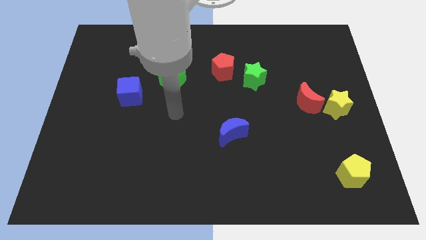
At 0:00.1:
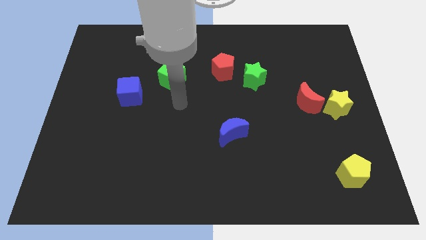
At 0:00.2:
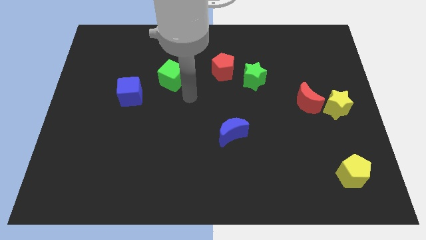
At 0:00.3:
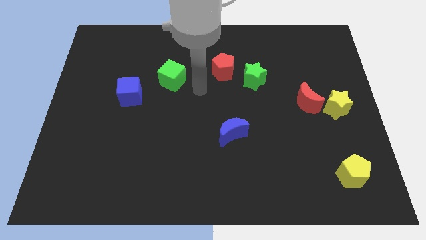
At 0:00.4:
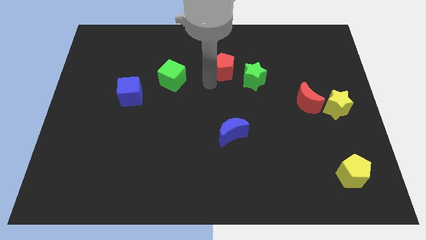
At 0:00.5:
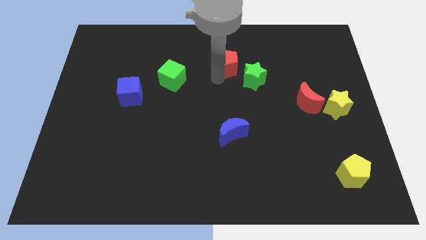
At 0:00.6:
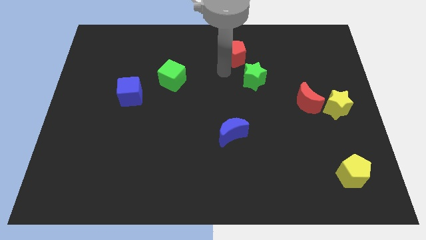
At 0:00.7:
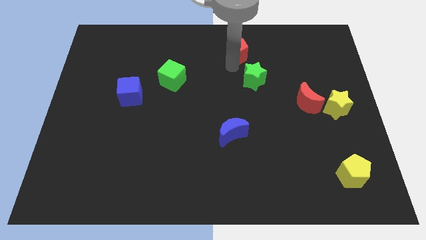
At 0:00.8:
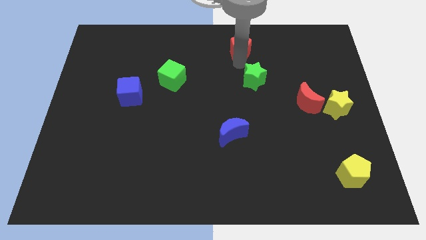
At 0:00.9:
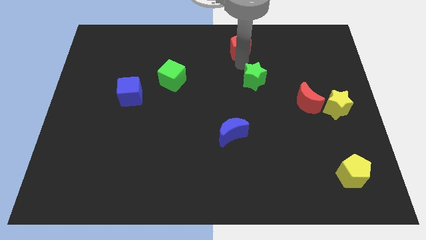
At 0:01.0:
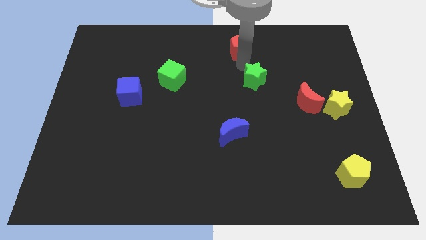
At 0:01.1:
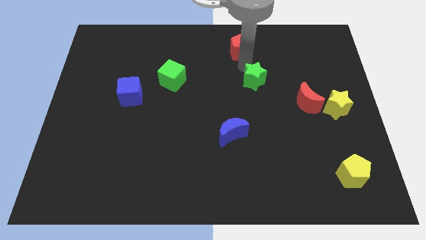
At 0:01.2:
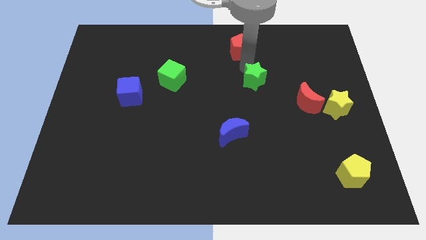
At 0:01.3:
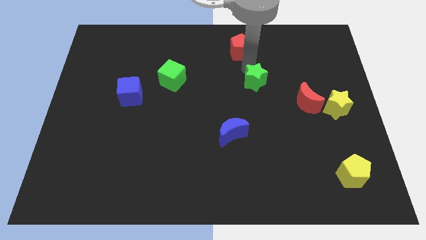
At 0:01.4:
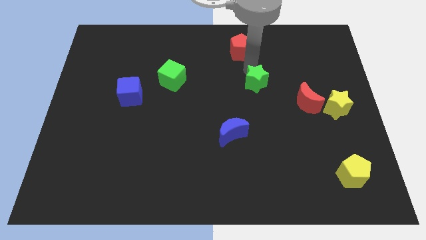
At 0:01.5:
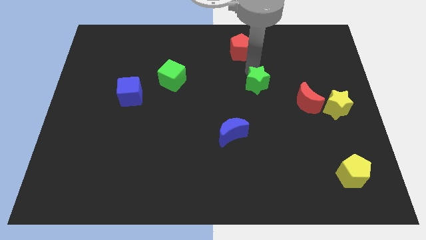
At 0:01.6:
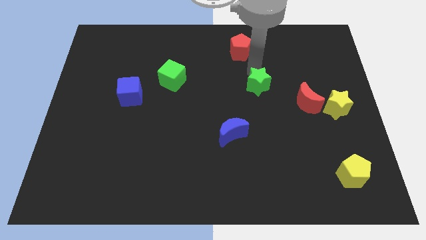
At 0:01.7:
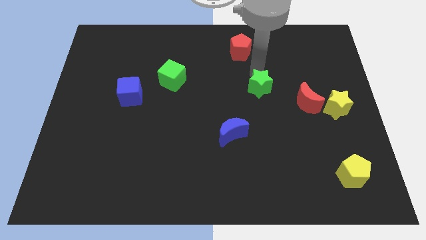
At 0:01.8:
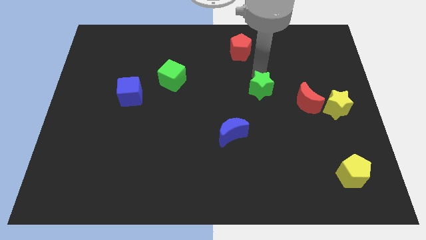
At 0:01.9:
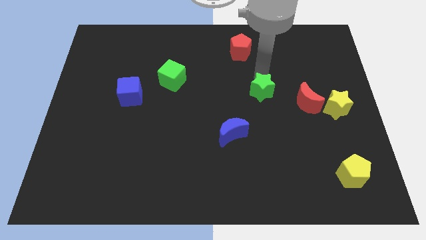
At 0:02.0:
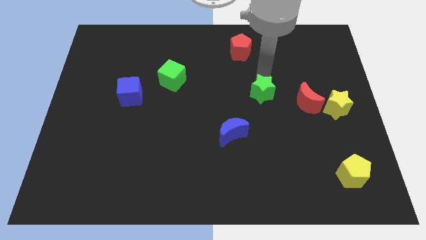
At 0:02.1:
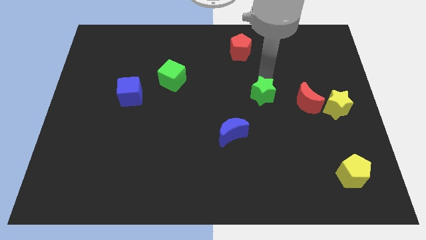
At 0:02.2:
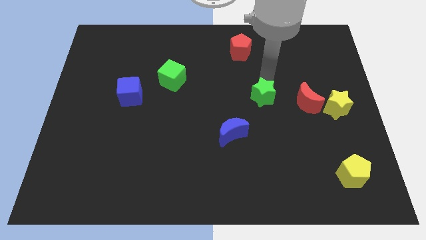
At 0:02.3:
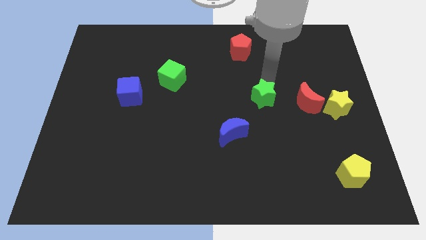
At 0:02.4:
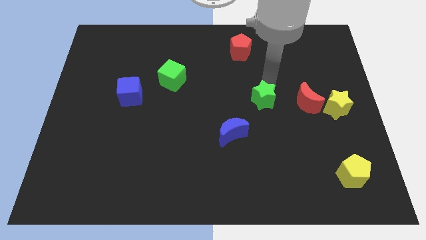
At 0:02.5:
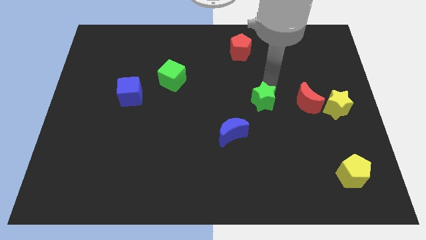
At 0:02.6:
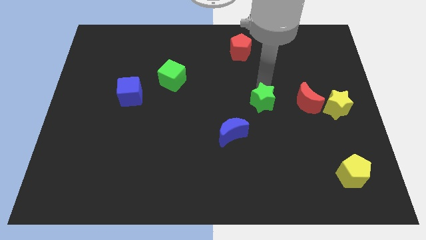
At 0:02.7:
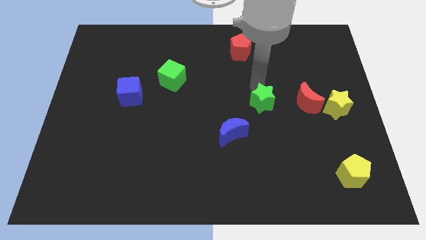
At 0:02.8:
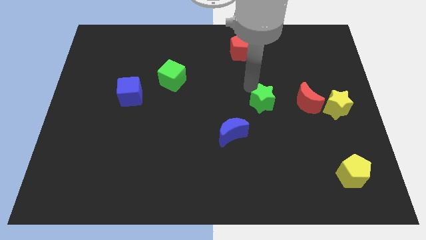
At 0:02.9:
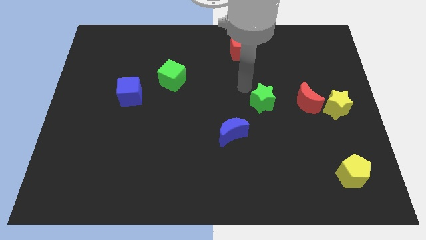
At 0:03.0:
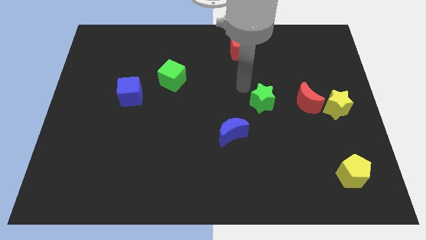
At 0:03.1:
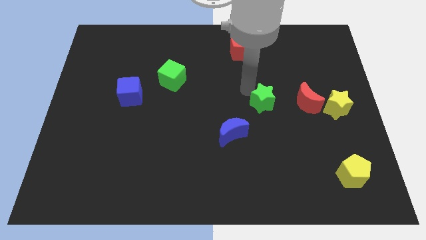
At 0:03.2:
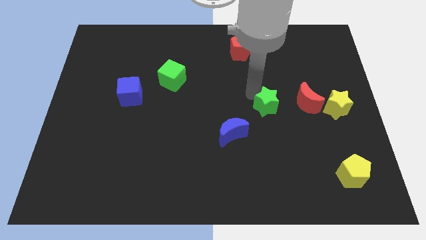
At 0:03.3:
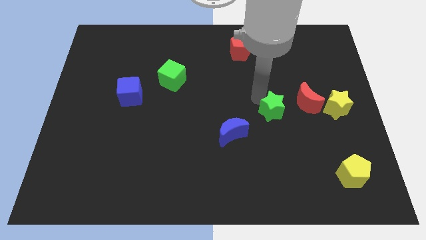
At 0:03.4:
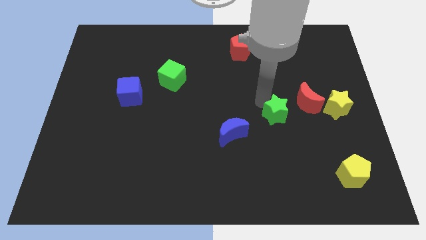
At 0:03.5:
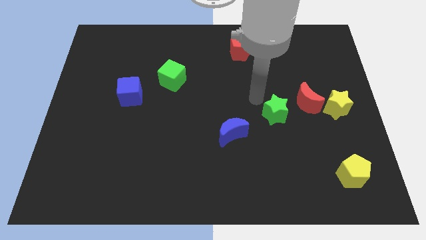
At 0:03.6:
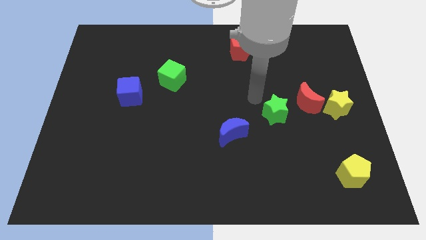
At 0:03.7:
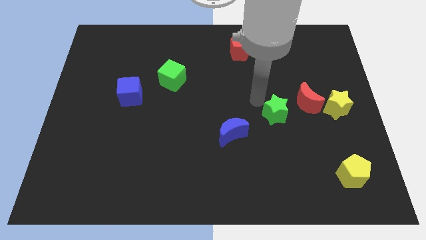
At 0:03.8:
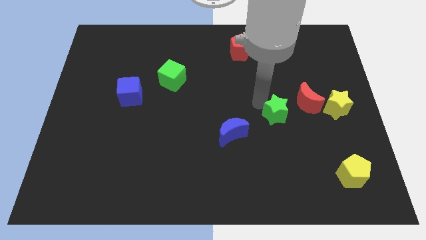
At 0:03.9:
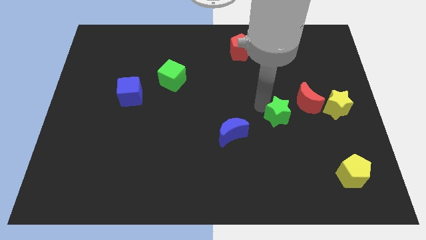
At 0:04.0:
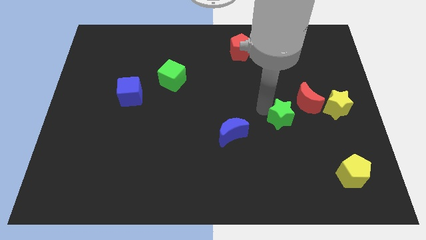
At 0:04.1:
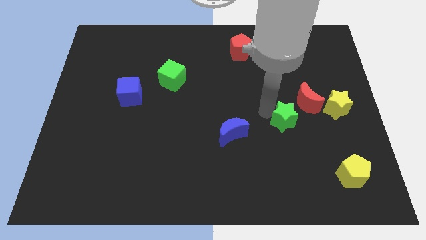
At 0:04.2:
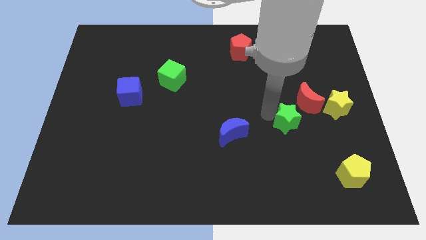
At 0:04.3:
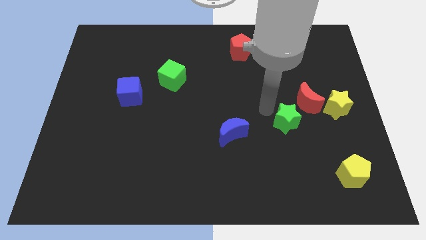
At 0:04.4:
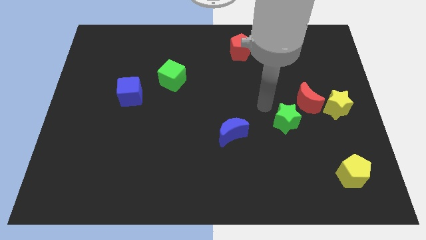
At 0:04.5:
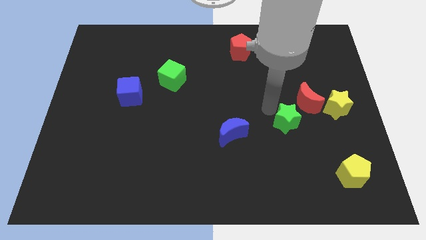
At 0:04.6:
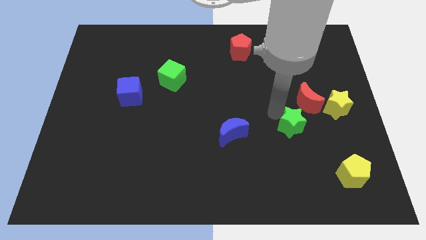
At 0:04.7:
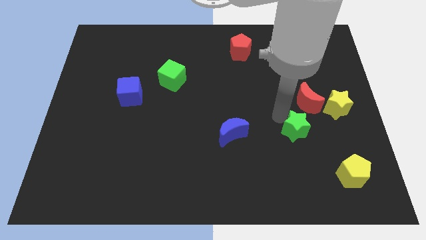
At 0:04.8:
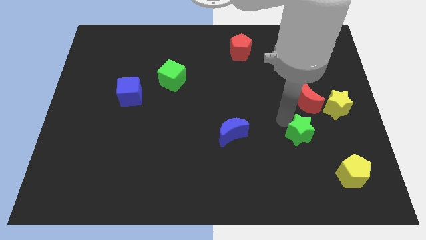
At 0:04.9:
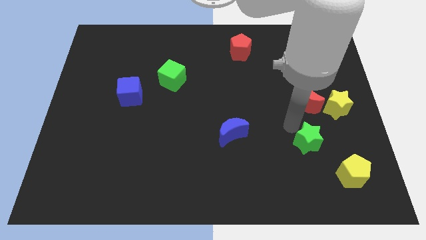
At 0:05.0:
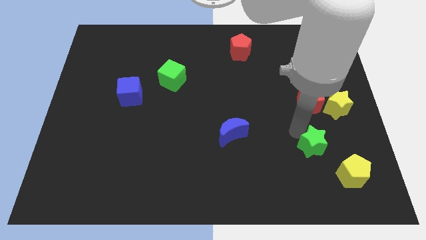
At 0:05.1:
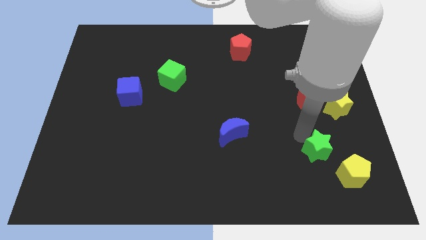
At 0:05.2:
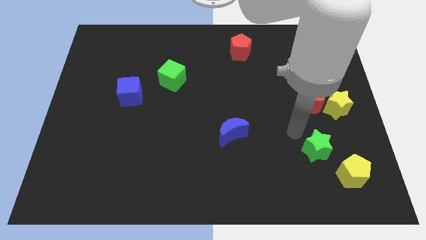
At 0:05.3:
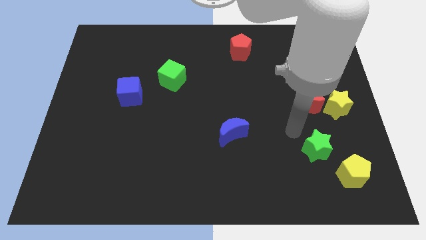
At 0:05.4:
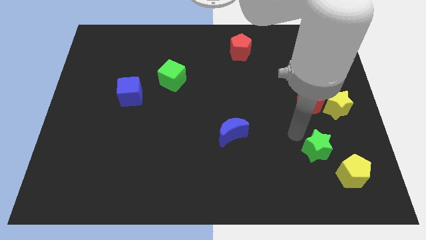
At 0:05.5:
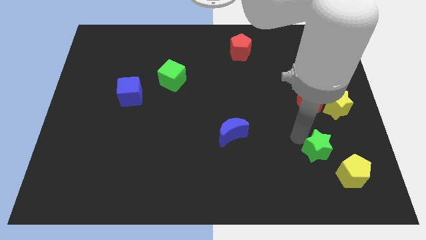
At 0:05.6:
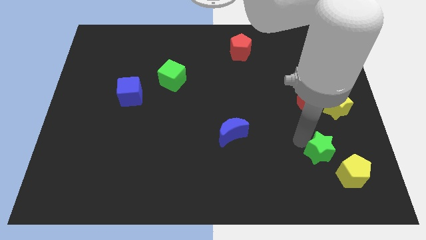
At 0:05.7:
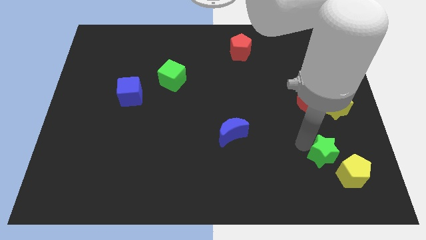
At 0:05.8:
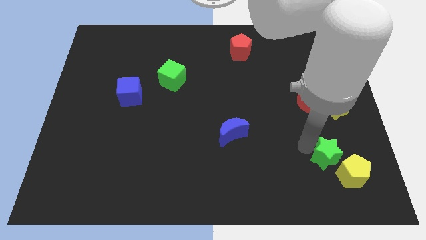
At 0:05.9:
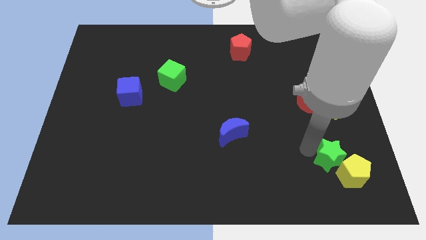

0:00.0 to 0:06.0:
move the green star close to the yellow pentagon

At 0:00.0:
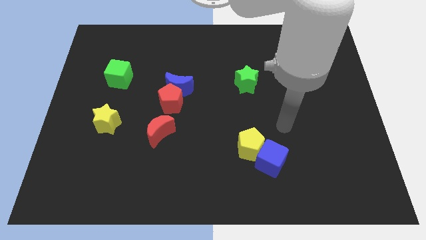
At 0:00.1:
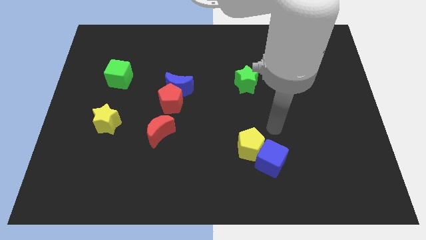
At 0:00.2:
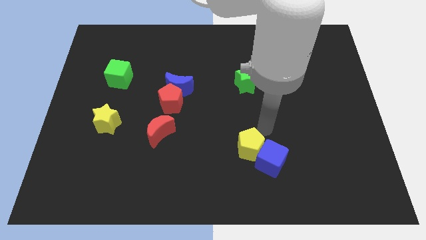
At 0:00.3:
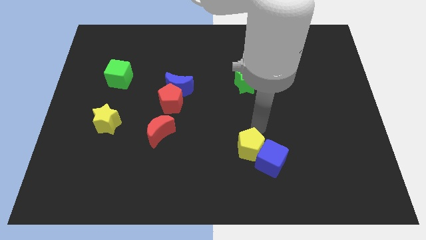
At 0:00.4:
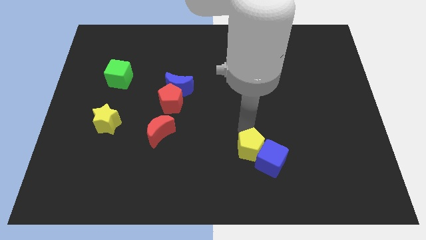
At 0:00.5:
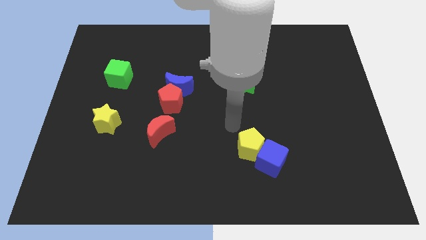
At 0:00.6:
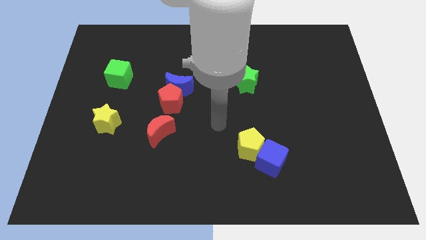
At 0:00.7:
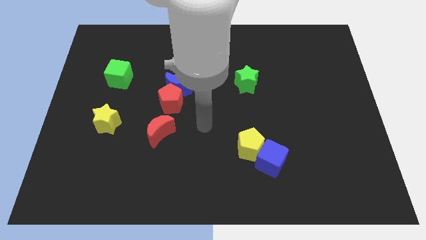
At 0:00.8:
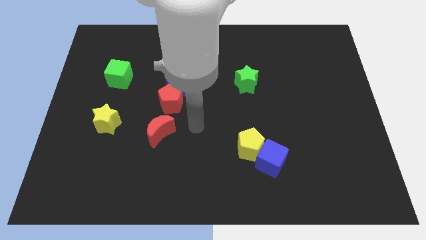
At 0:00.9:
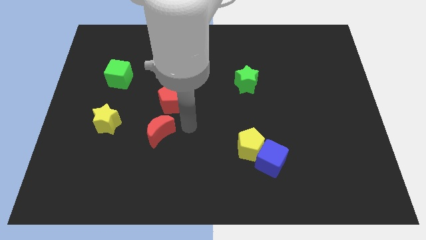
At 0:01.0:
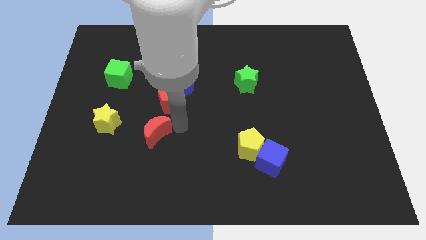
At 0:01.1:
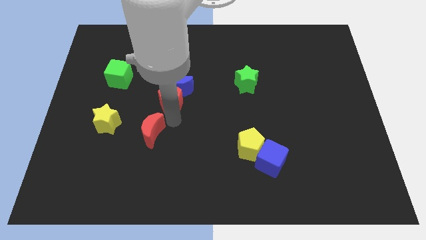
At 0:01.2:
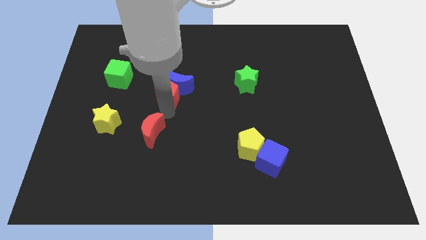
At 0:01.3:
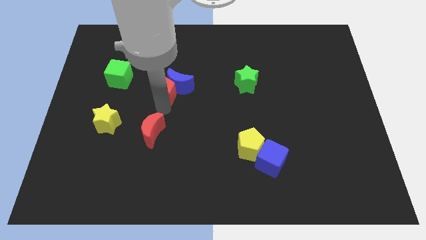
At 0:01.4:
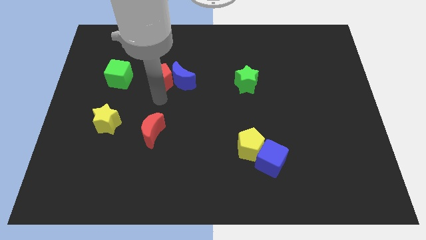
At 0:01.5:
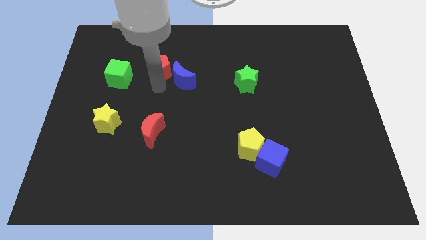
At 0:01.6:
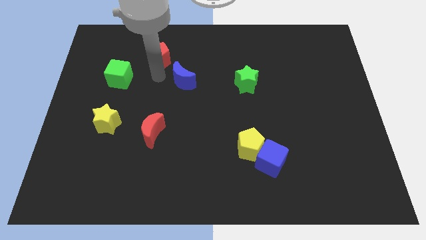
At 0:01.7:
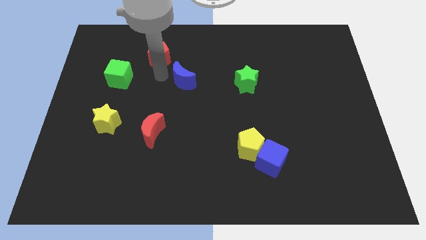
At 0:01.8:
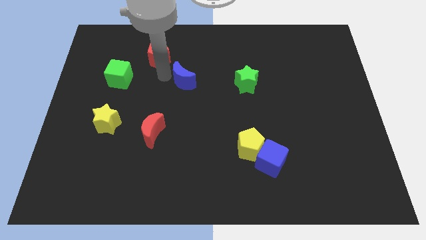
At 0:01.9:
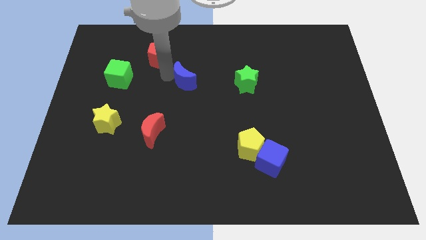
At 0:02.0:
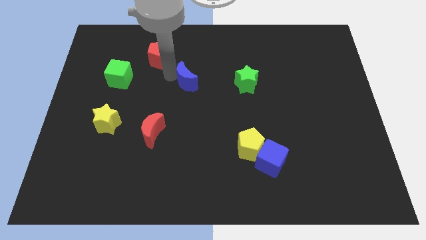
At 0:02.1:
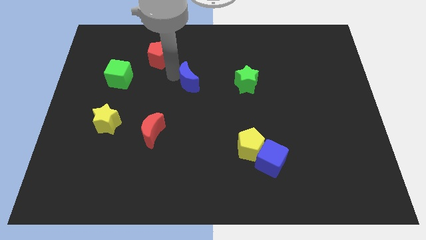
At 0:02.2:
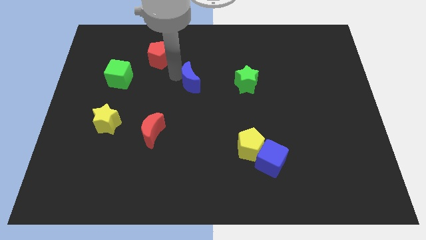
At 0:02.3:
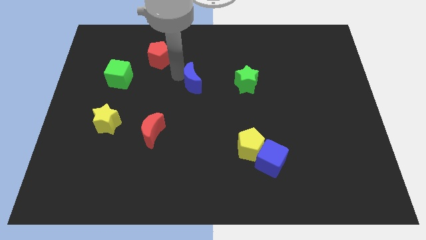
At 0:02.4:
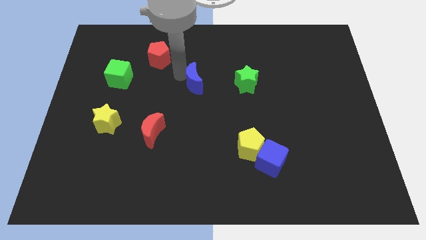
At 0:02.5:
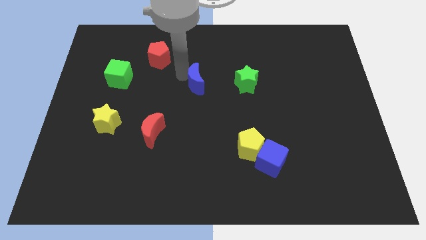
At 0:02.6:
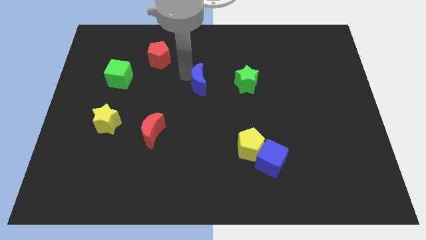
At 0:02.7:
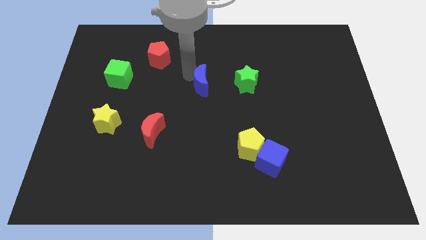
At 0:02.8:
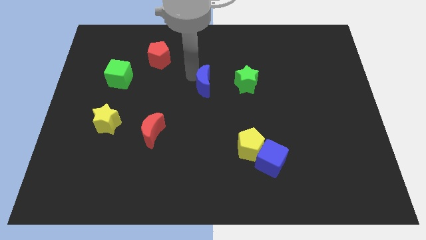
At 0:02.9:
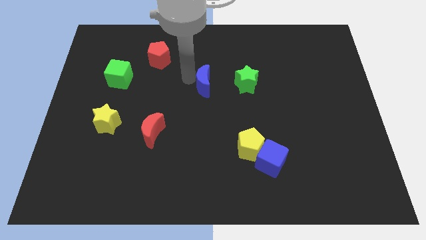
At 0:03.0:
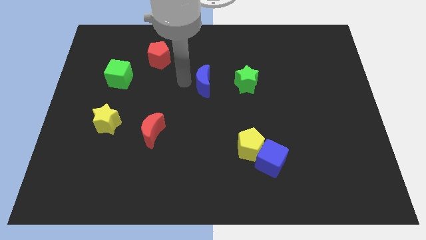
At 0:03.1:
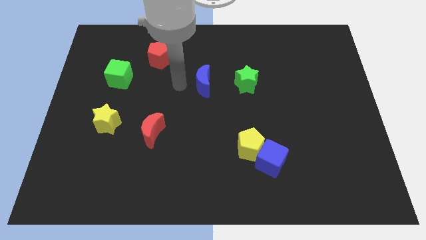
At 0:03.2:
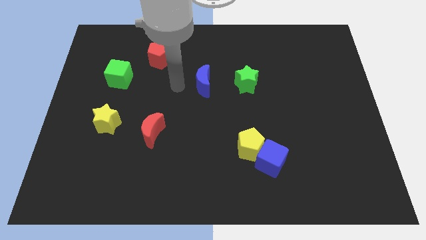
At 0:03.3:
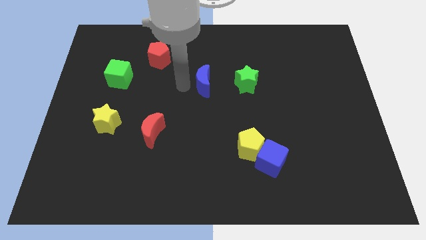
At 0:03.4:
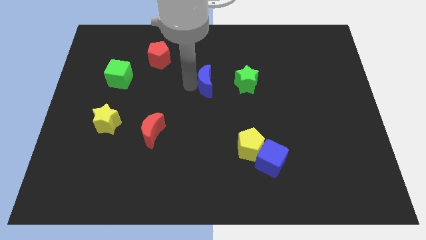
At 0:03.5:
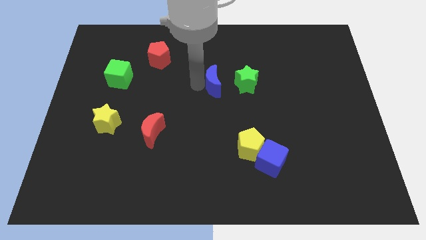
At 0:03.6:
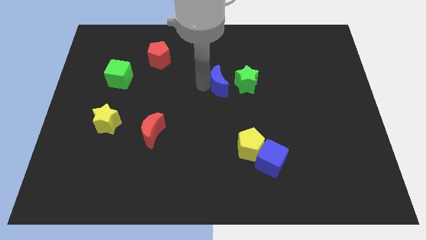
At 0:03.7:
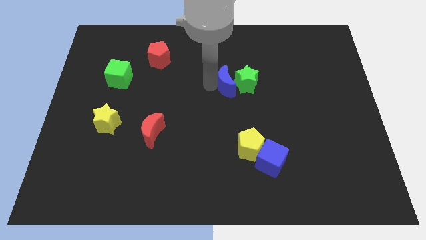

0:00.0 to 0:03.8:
push the blue moon to the green star
